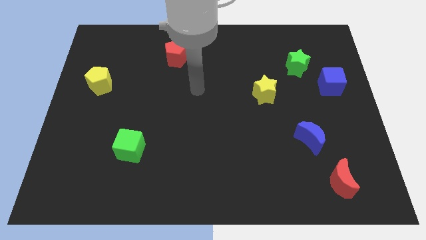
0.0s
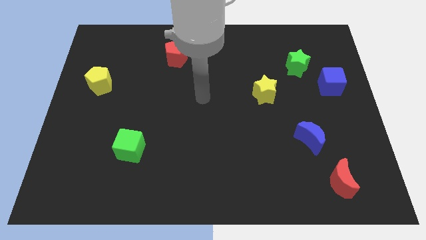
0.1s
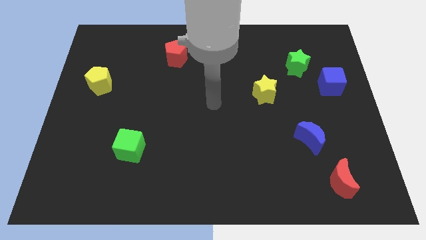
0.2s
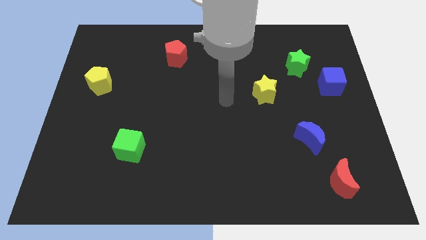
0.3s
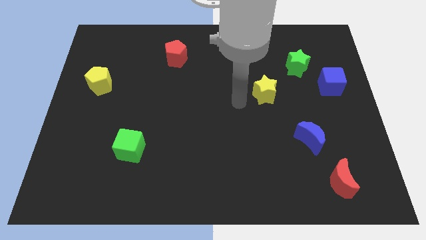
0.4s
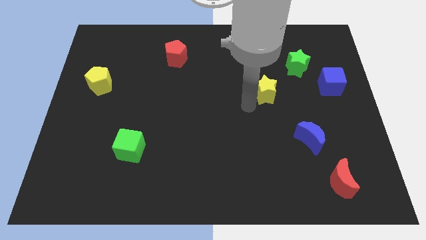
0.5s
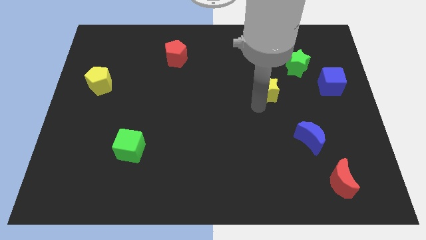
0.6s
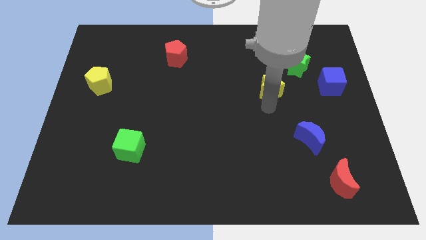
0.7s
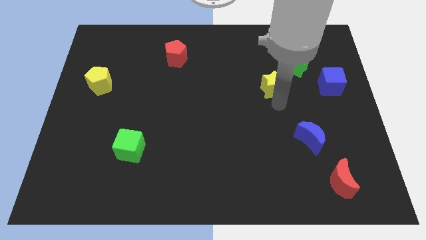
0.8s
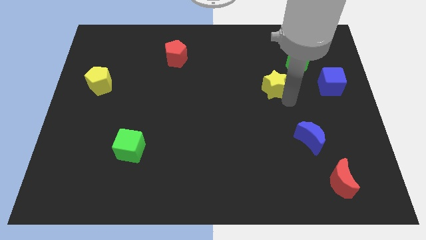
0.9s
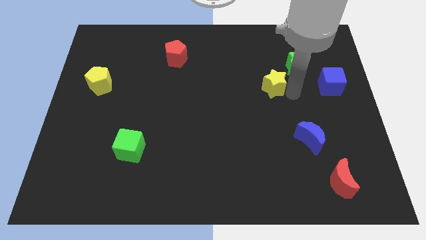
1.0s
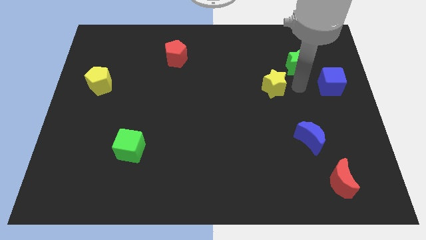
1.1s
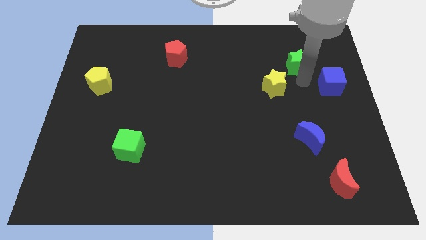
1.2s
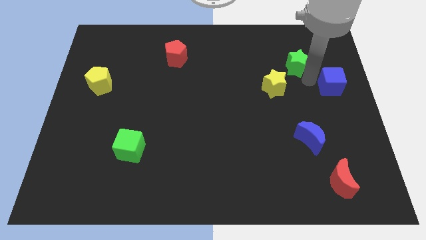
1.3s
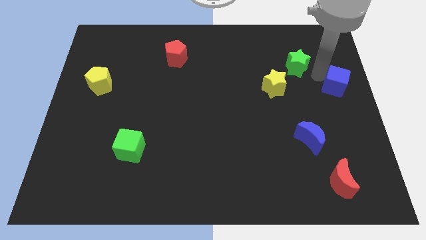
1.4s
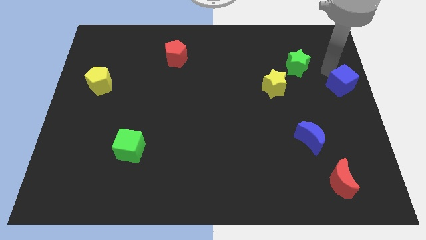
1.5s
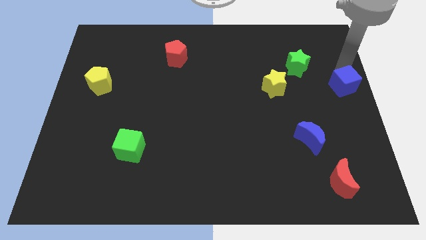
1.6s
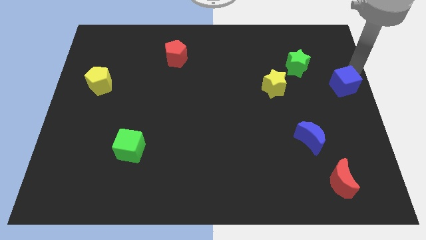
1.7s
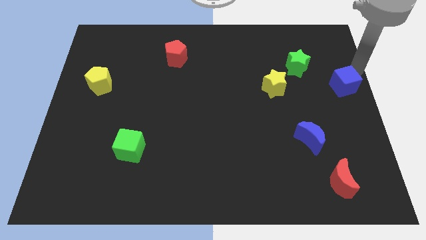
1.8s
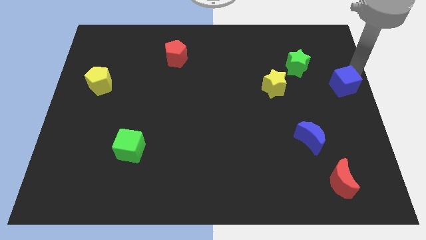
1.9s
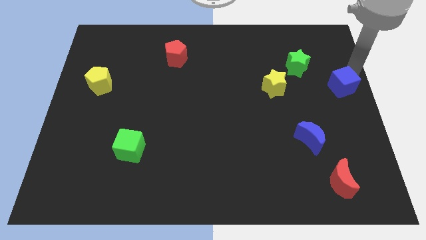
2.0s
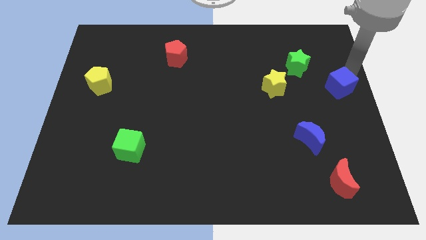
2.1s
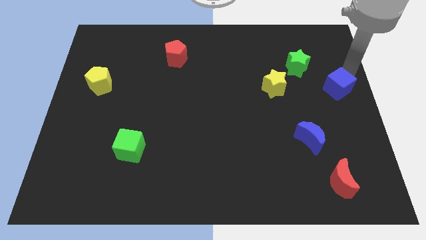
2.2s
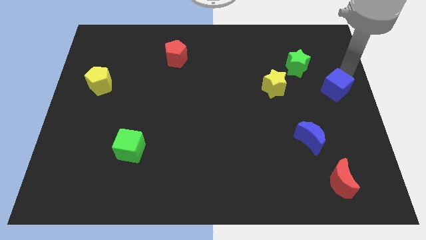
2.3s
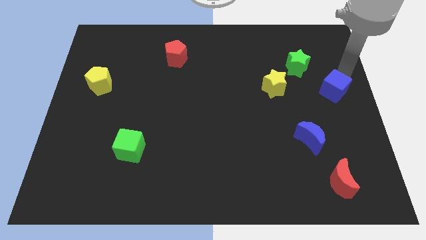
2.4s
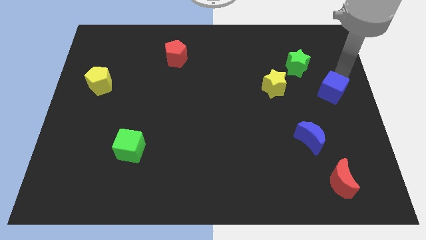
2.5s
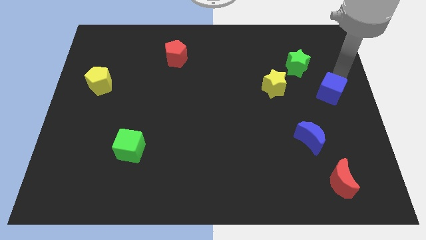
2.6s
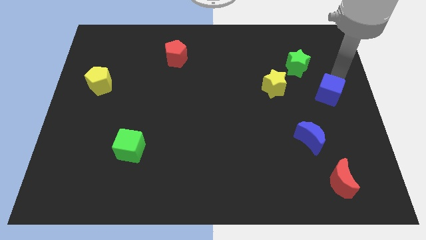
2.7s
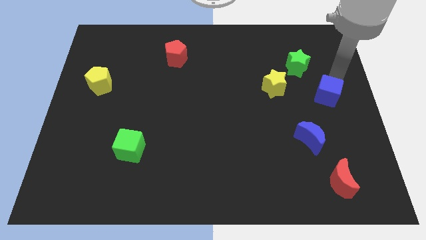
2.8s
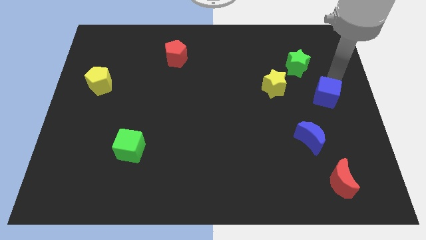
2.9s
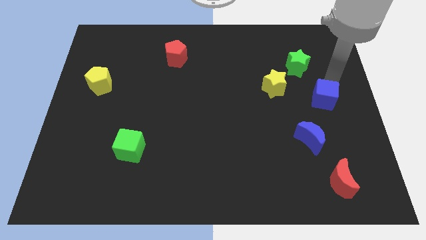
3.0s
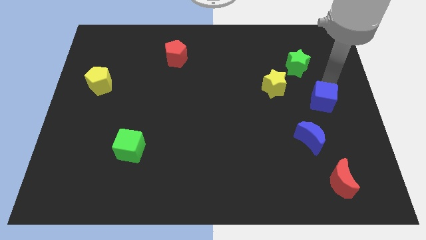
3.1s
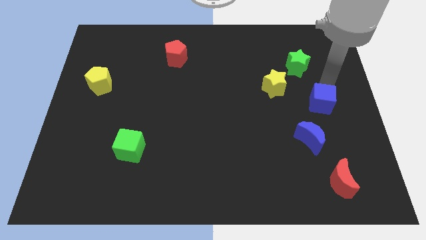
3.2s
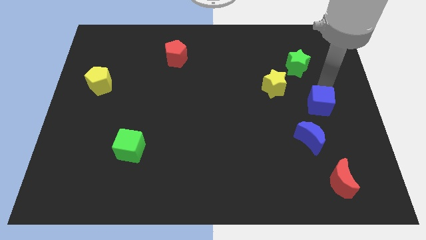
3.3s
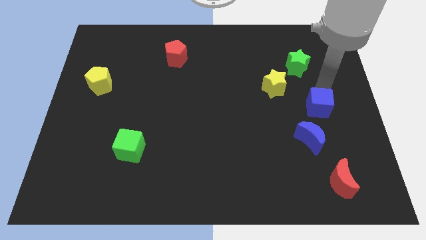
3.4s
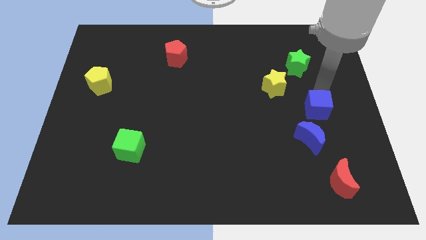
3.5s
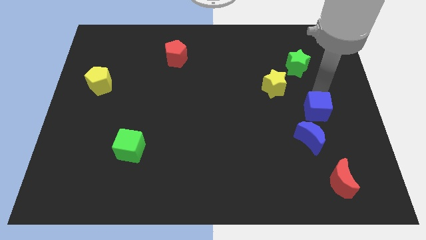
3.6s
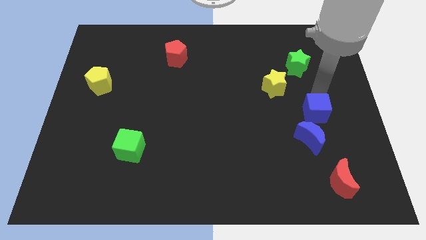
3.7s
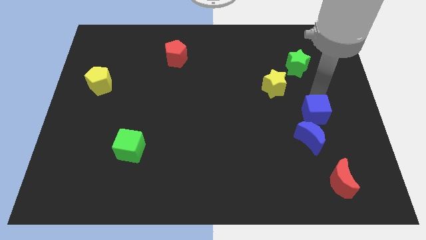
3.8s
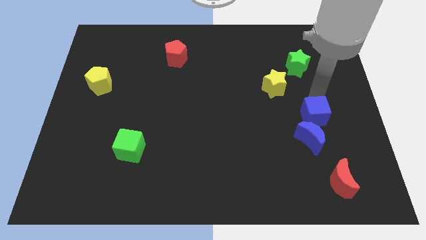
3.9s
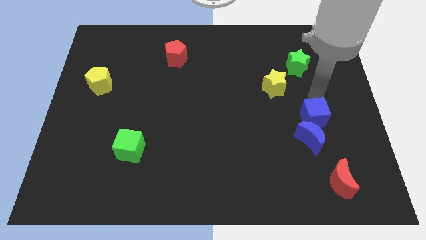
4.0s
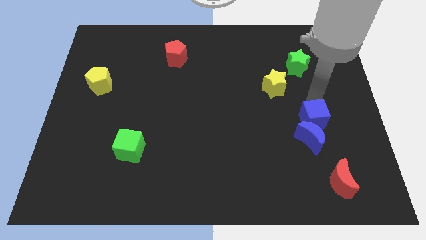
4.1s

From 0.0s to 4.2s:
move the blue cube to the blue moon

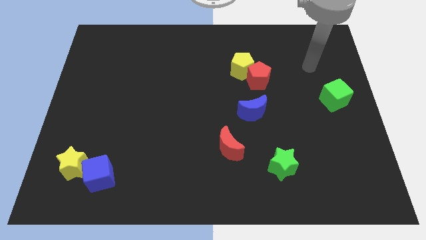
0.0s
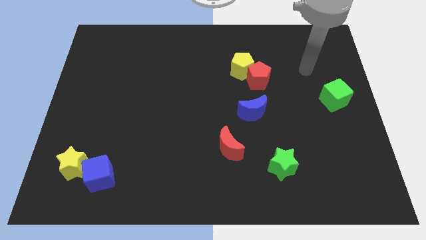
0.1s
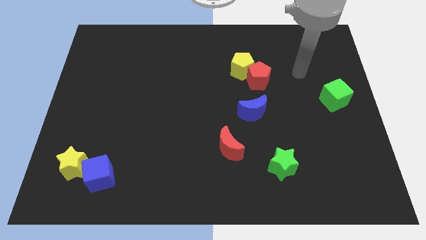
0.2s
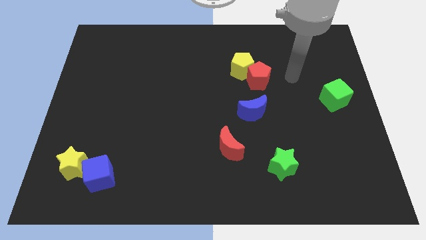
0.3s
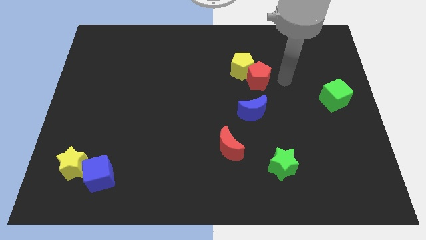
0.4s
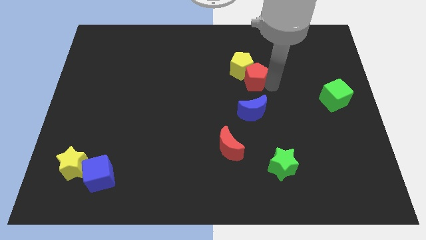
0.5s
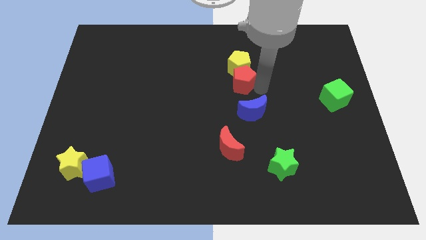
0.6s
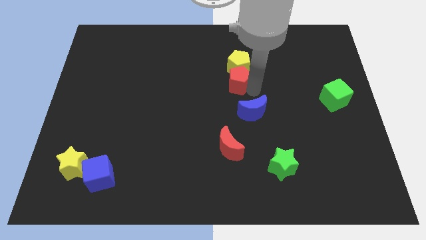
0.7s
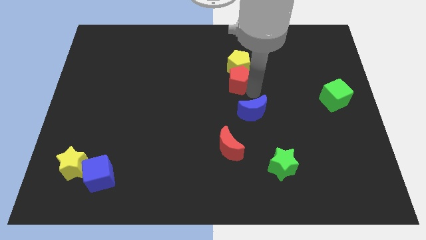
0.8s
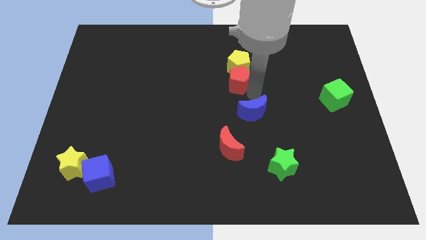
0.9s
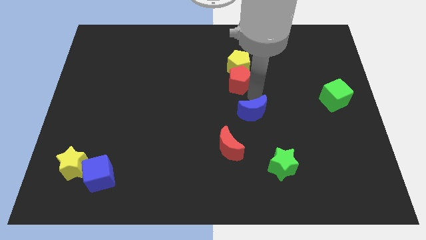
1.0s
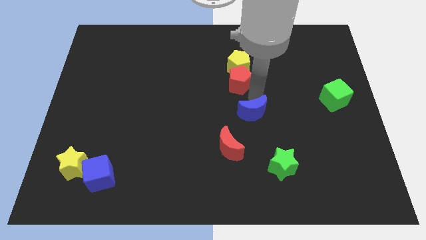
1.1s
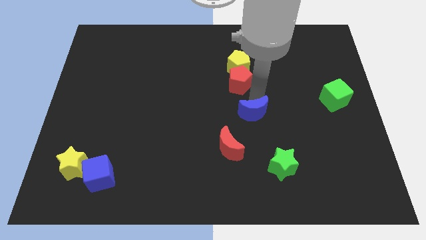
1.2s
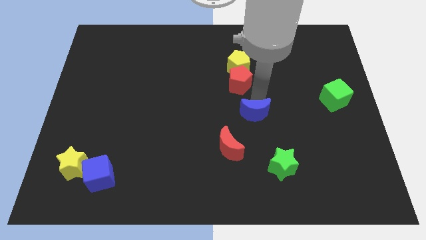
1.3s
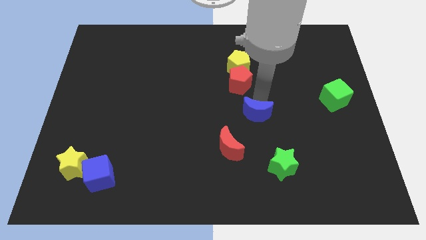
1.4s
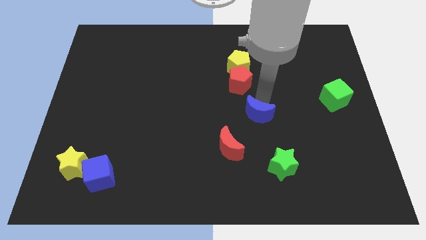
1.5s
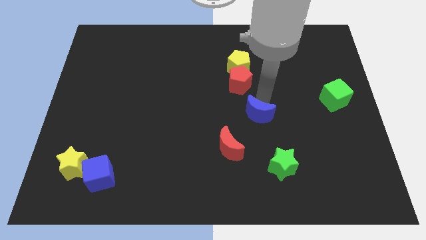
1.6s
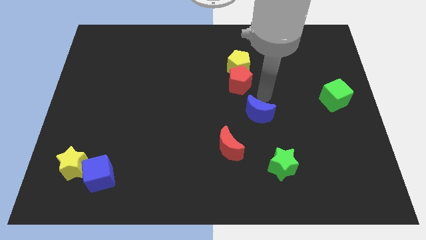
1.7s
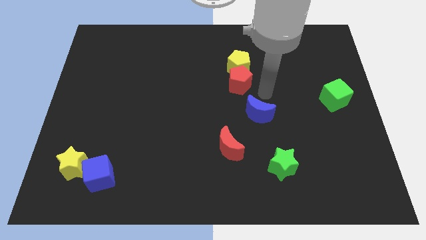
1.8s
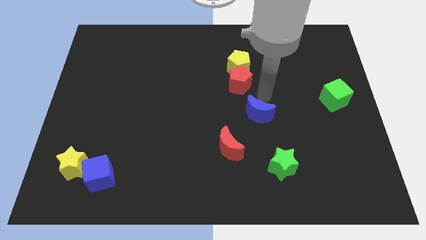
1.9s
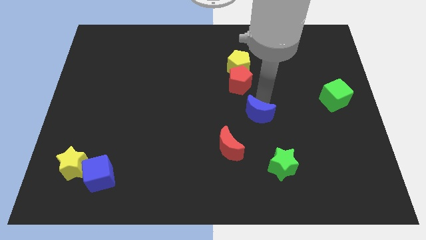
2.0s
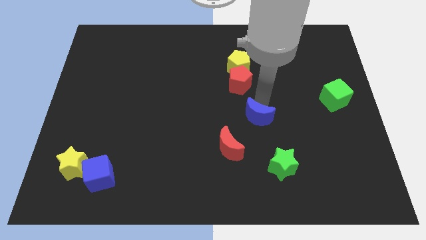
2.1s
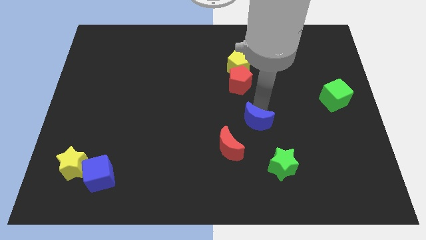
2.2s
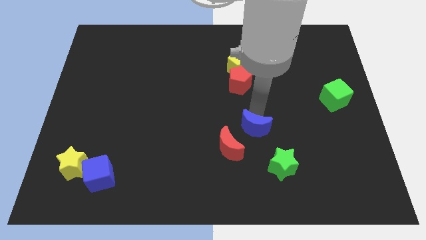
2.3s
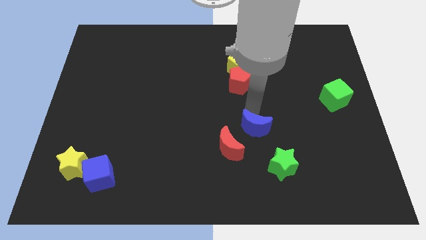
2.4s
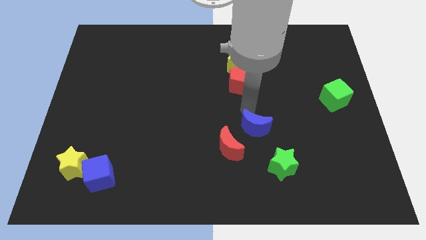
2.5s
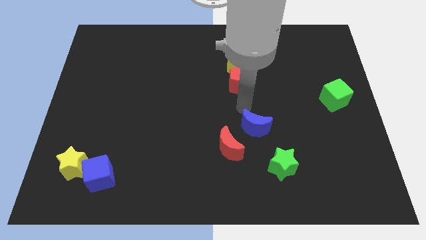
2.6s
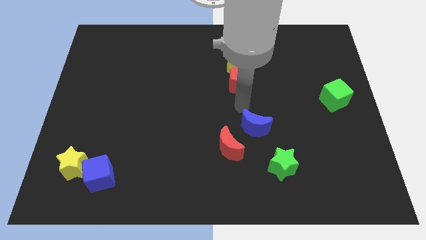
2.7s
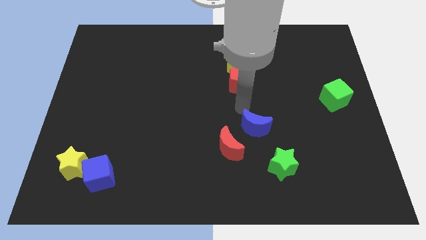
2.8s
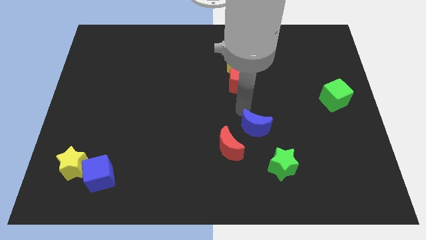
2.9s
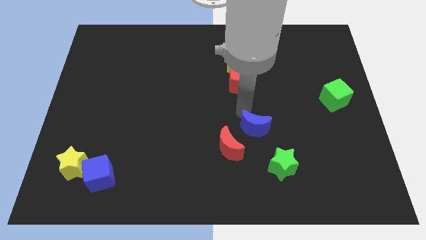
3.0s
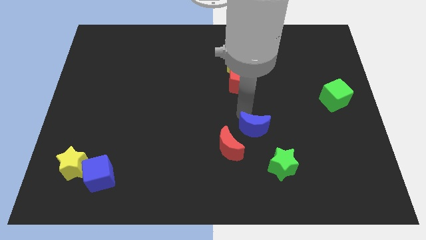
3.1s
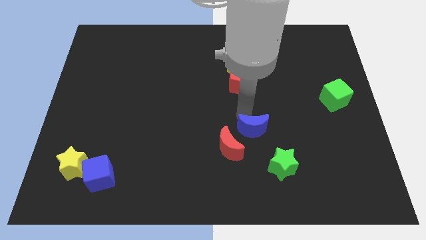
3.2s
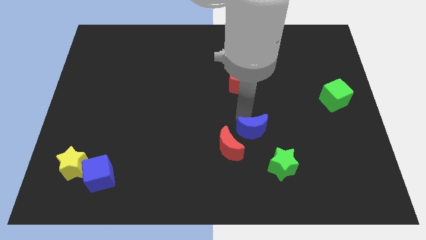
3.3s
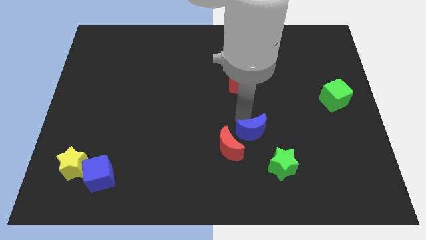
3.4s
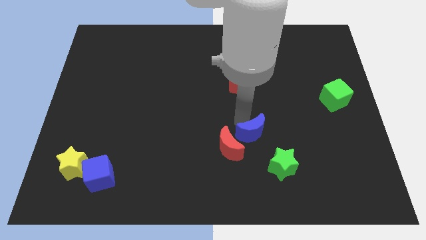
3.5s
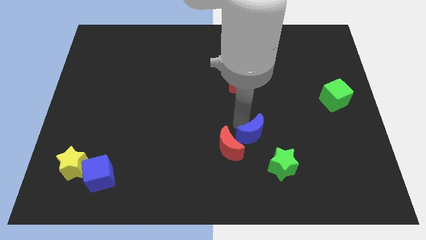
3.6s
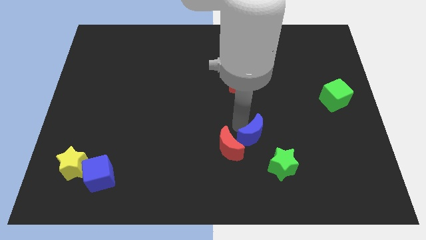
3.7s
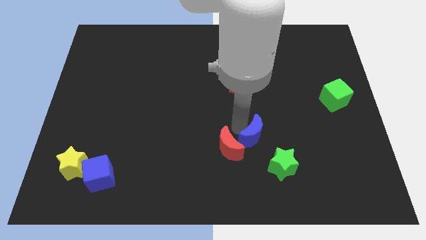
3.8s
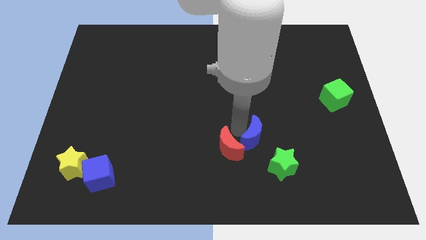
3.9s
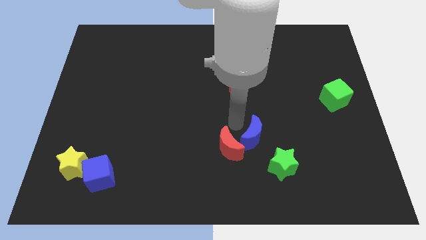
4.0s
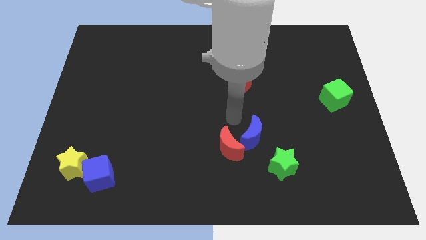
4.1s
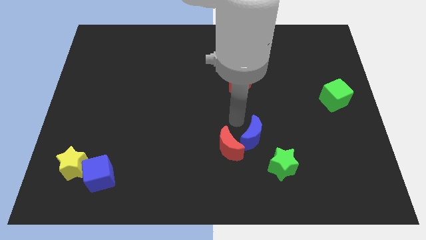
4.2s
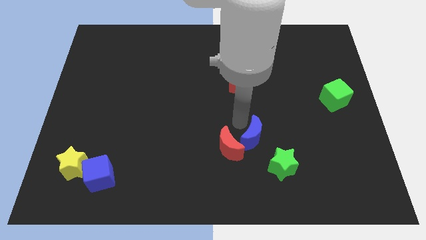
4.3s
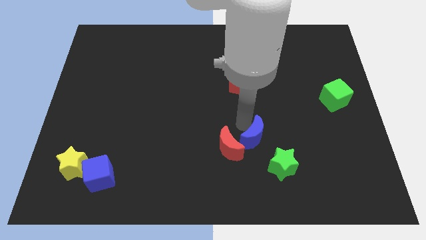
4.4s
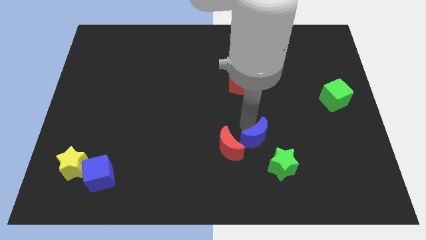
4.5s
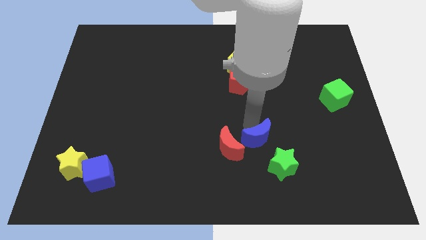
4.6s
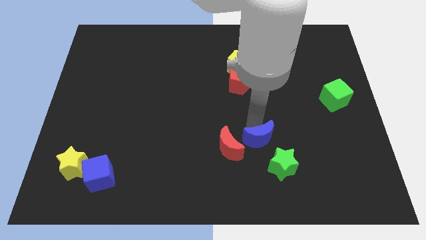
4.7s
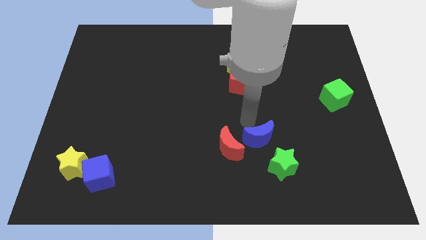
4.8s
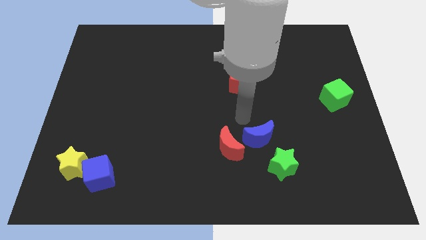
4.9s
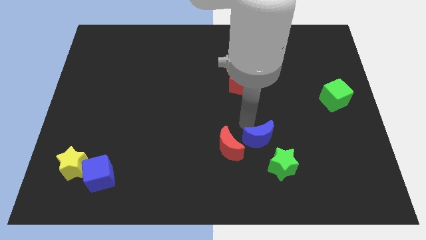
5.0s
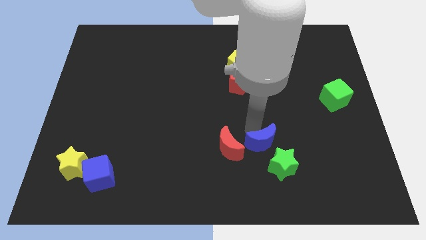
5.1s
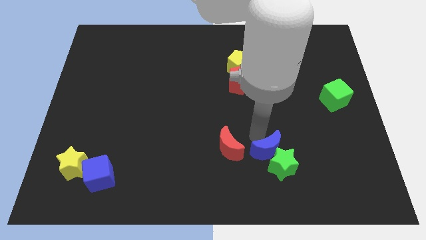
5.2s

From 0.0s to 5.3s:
move the blue moon close to the green star
